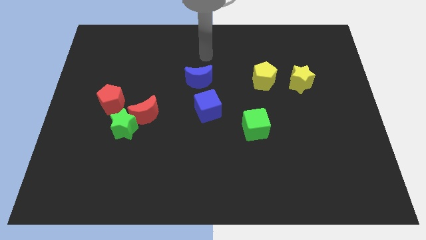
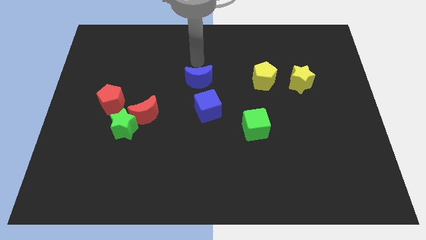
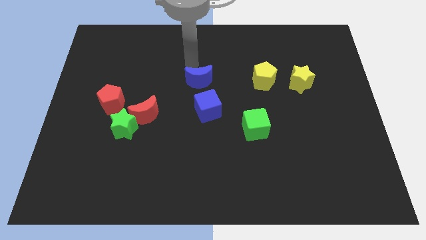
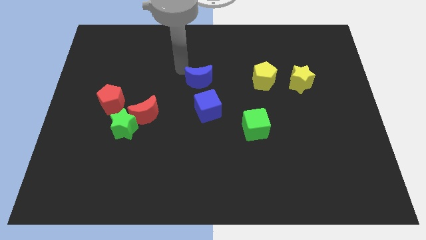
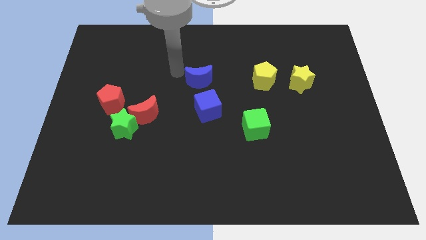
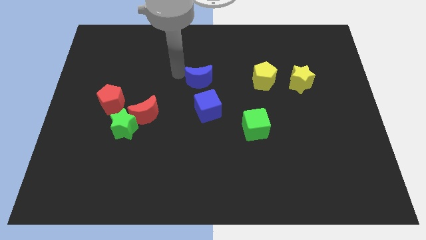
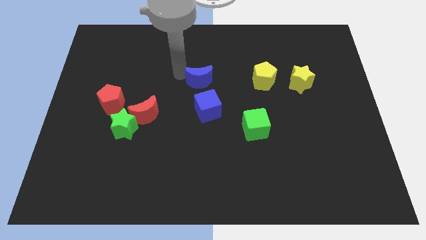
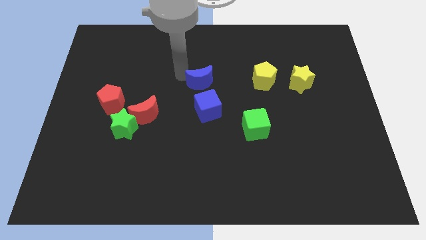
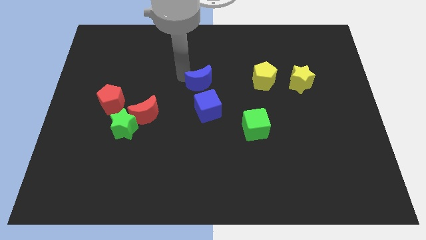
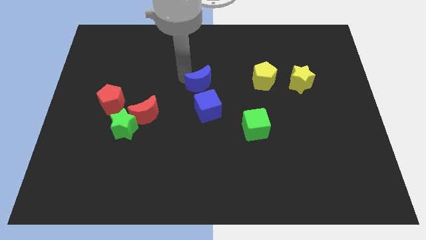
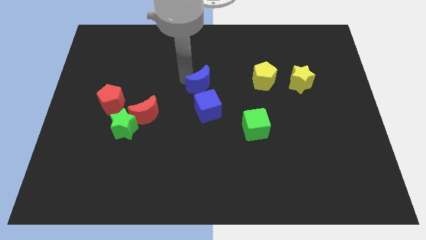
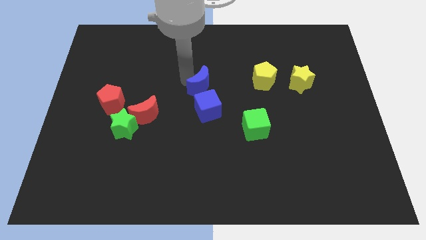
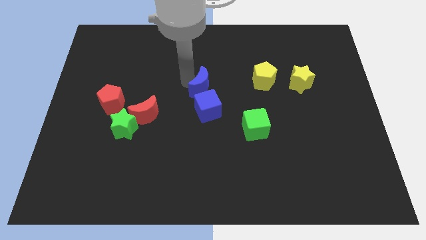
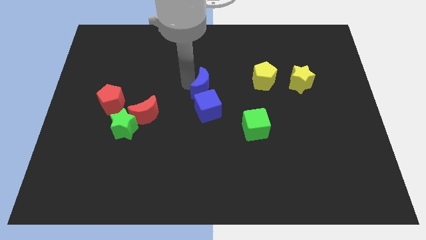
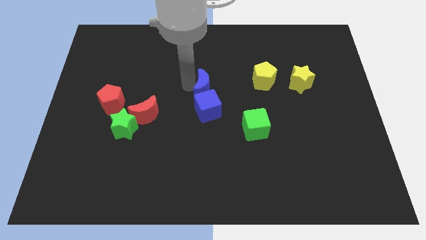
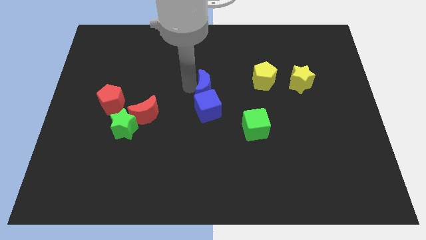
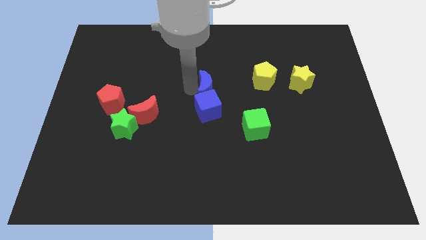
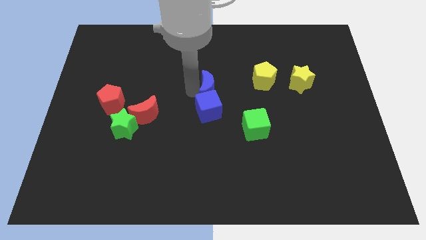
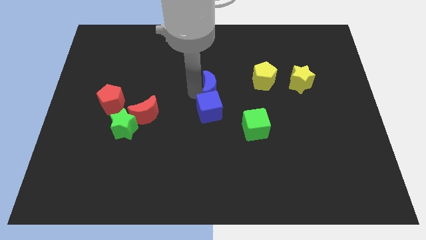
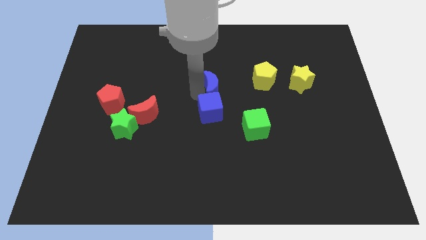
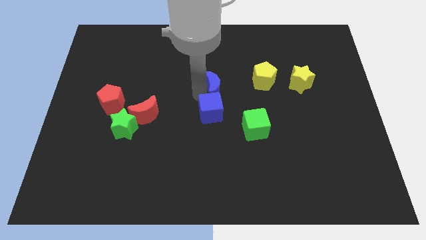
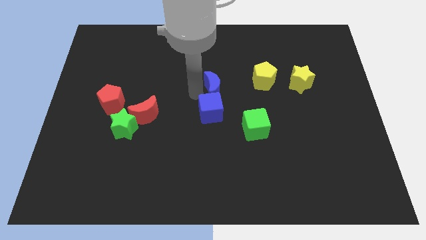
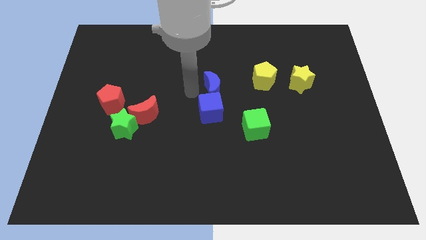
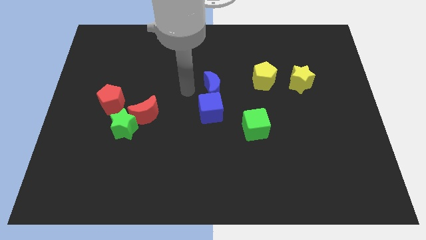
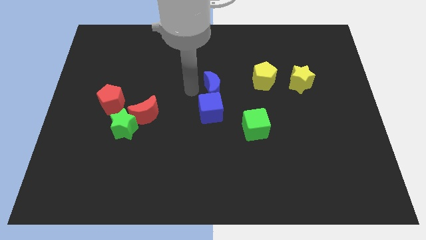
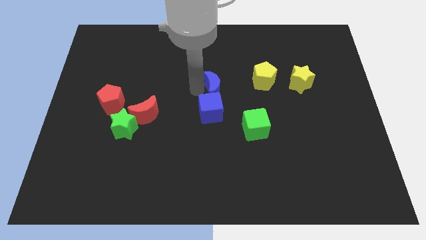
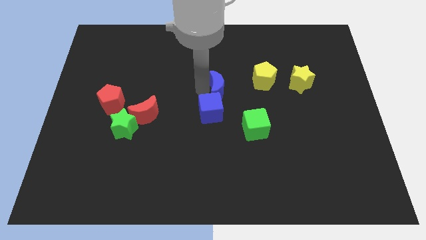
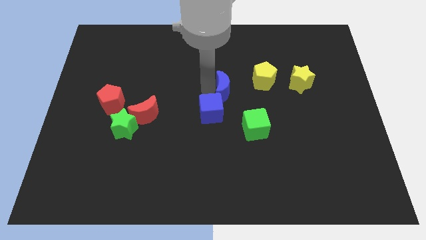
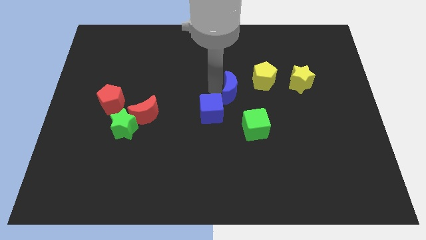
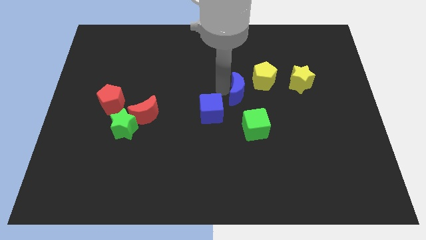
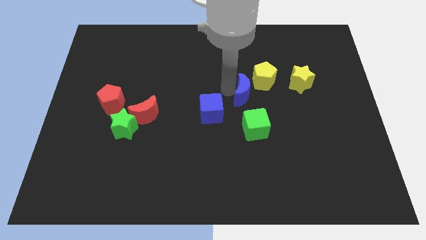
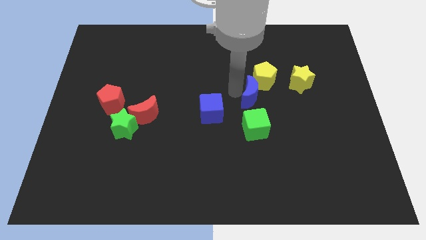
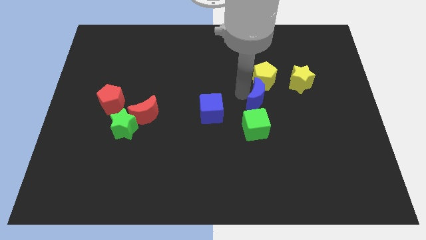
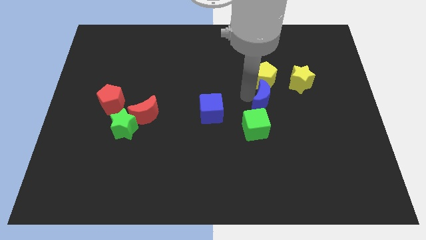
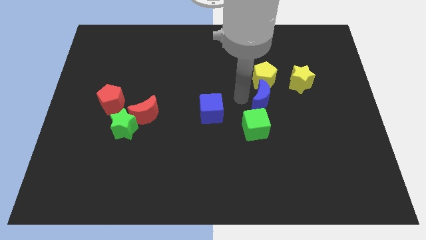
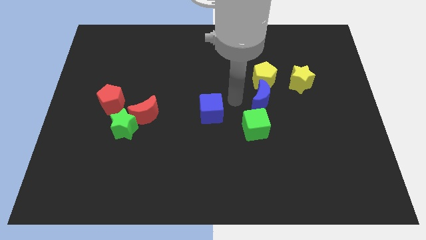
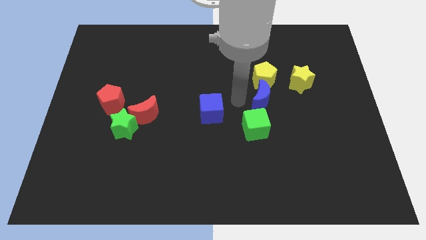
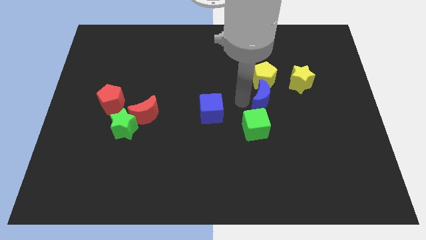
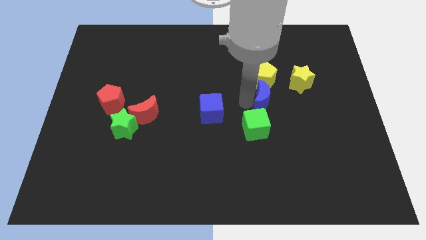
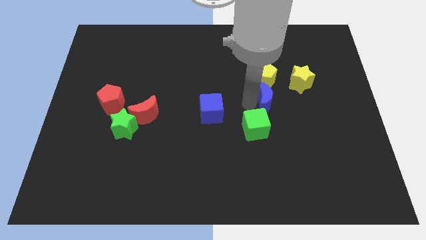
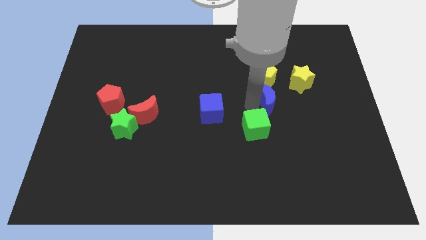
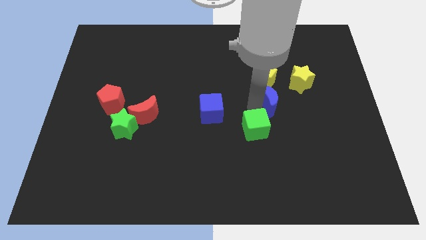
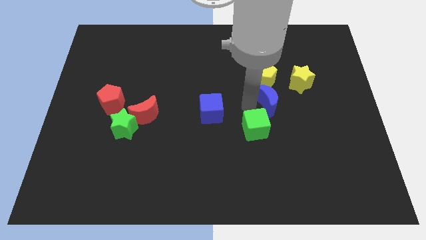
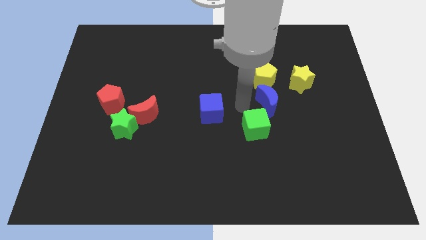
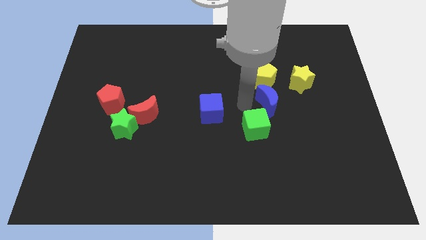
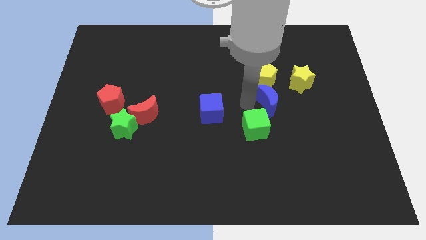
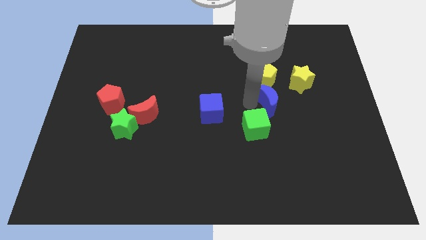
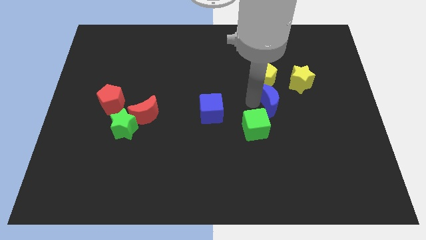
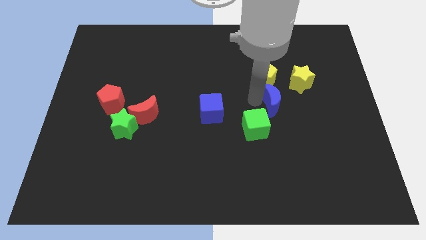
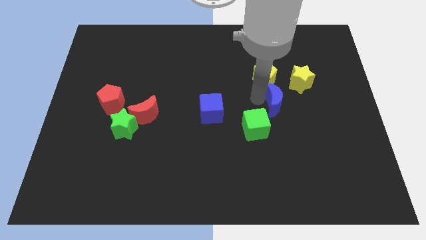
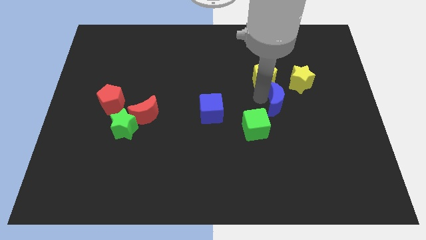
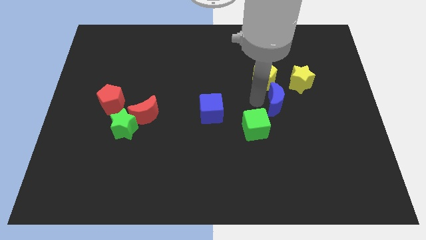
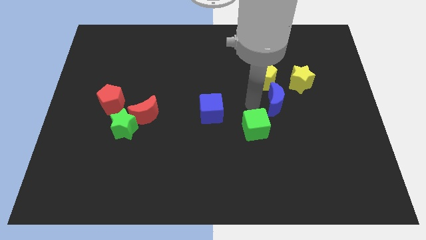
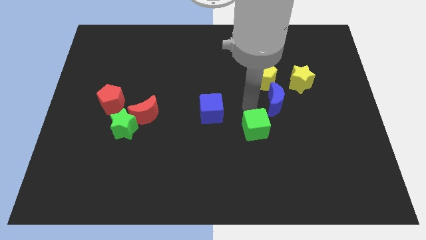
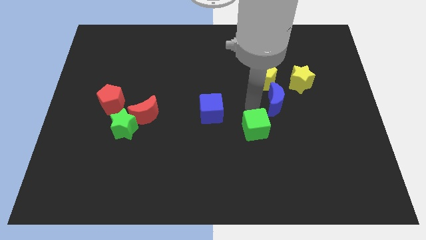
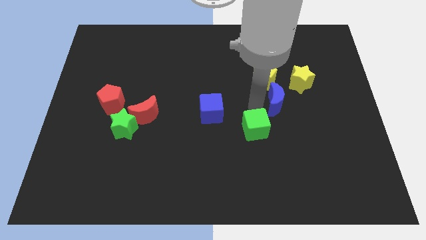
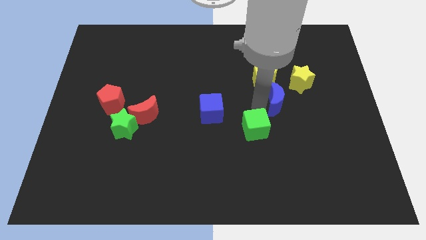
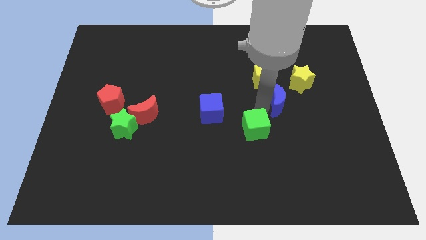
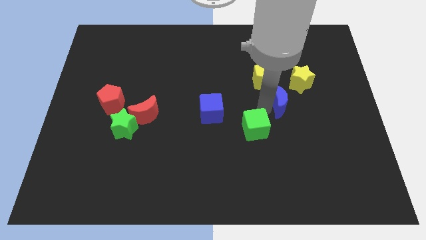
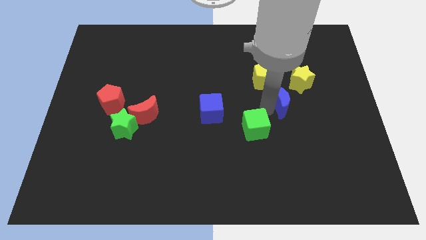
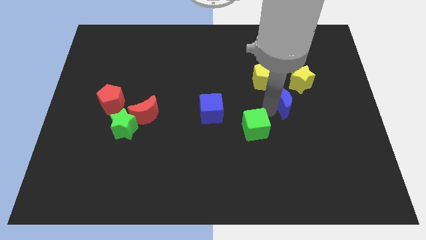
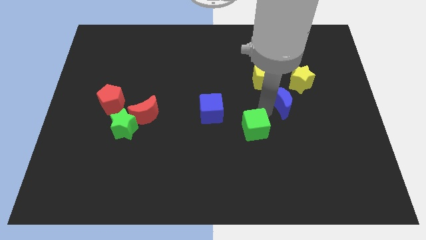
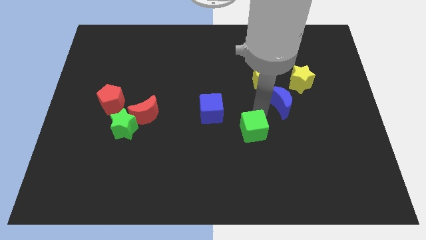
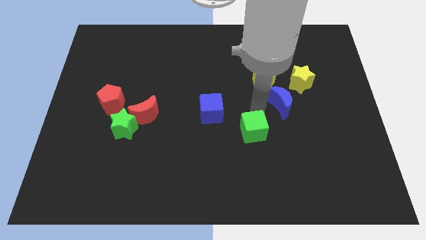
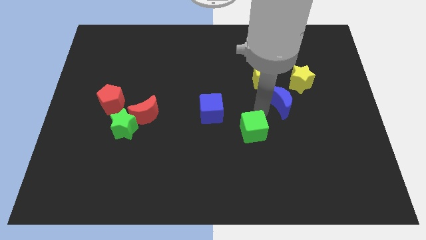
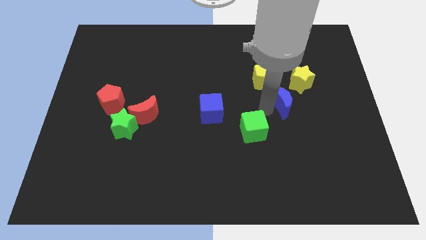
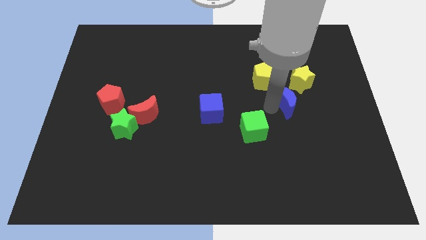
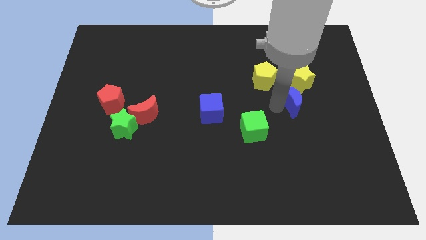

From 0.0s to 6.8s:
push the blue moon to the right

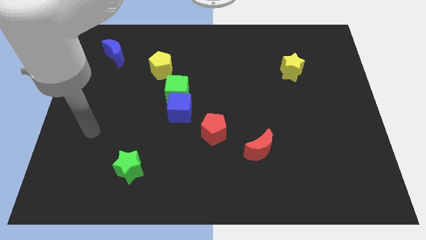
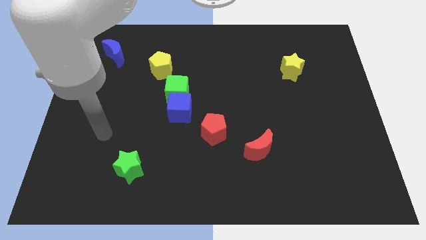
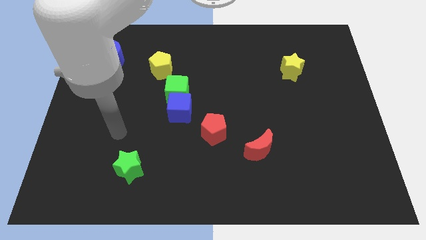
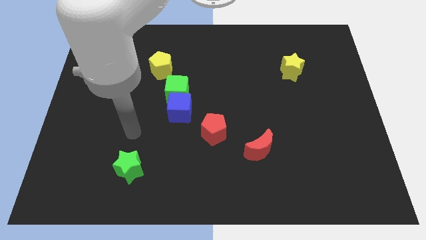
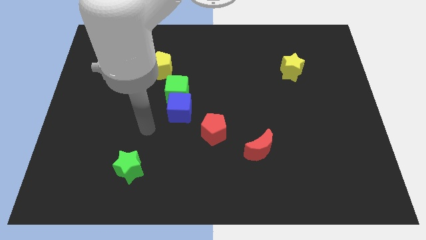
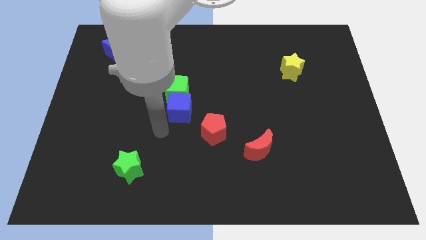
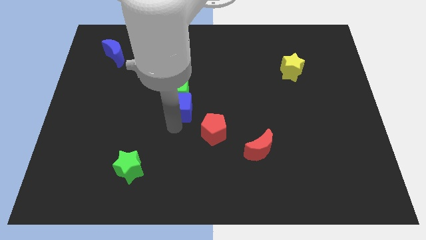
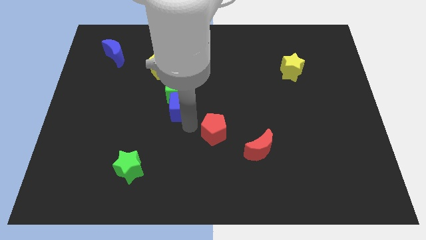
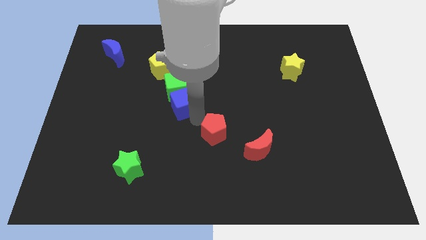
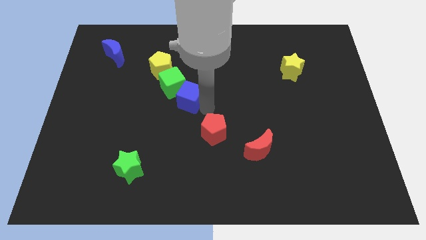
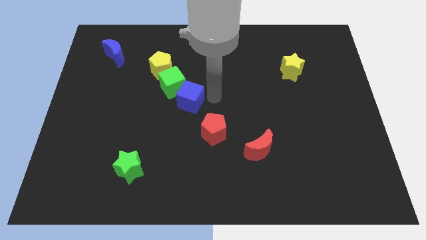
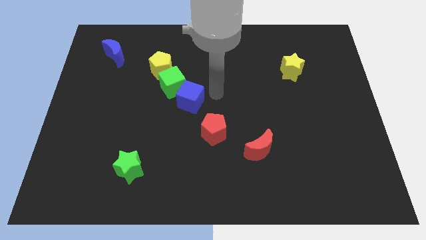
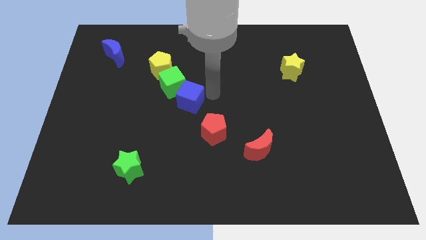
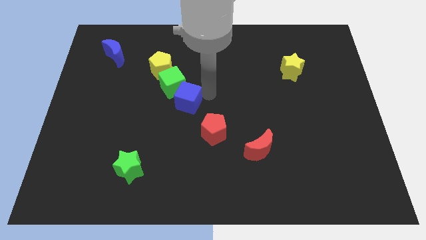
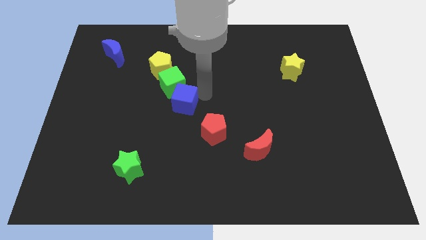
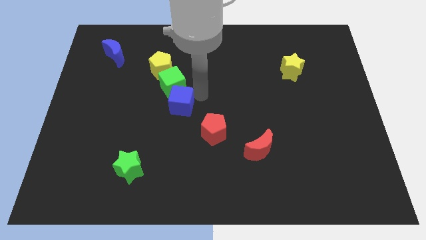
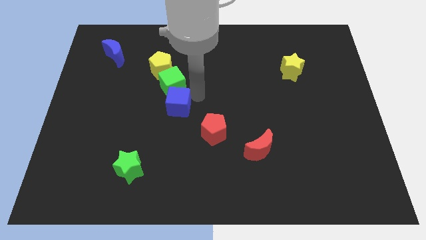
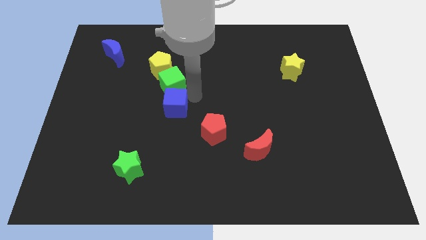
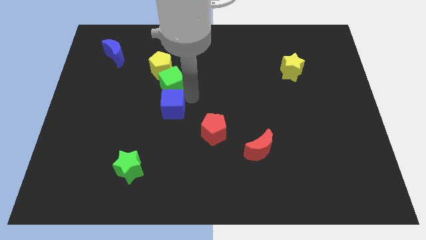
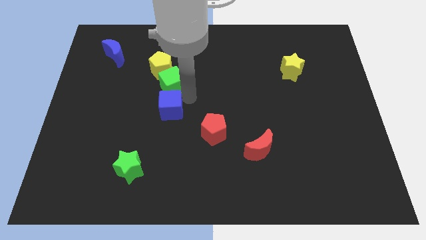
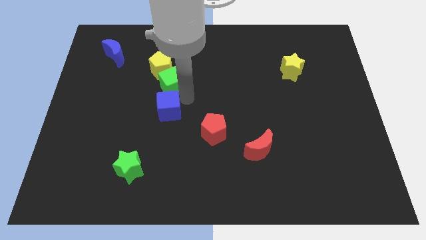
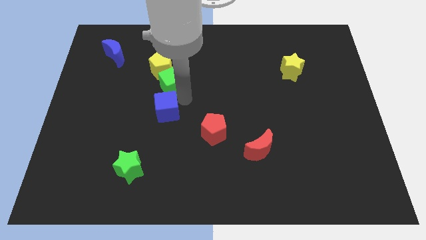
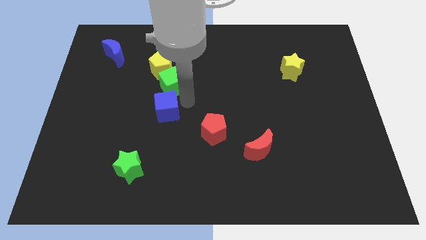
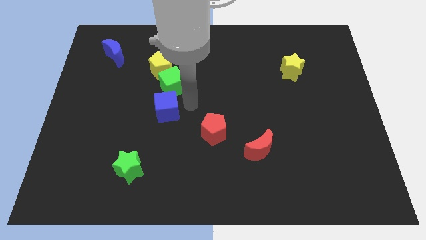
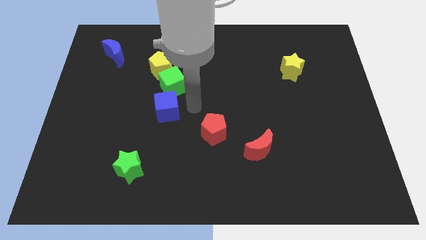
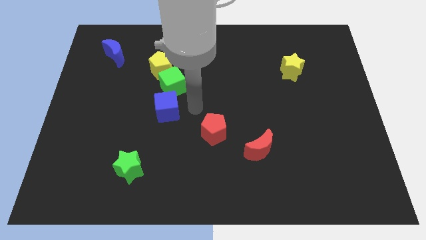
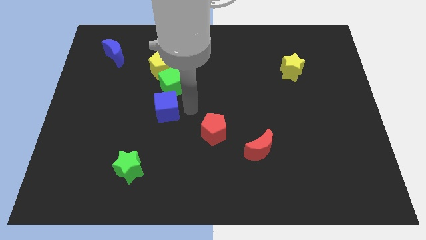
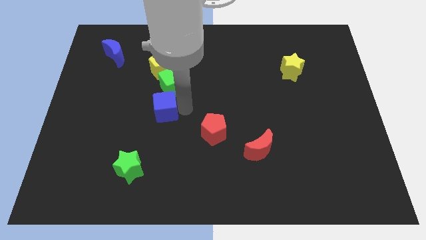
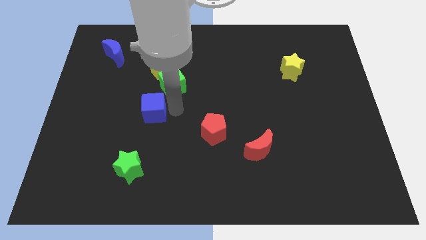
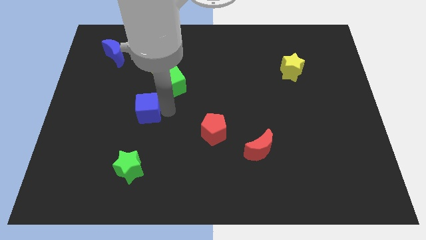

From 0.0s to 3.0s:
slide the blue cube a little bit left
